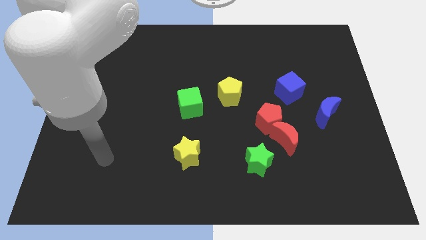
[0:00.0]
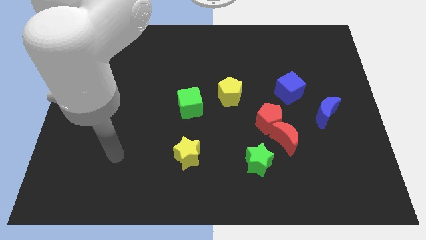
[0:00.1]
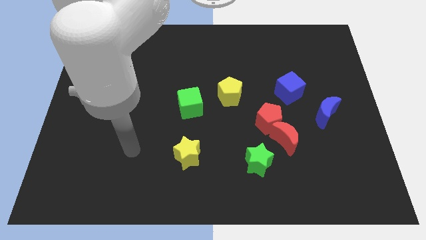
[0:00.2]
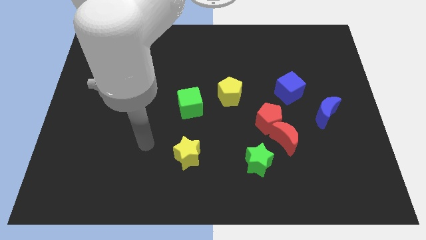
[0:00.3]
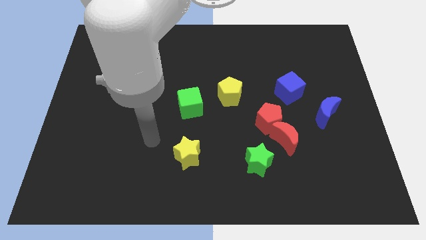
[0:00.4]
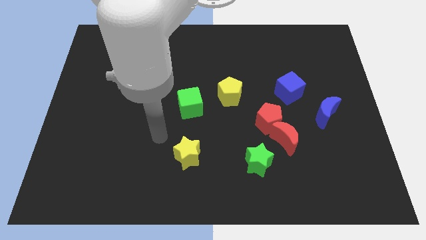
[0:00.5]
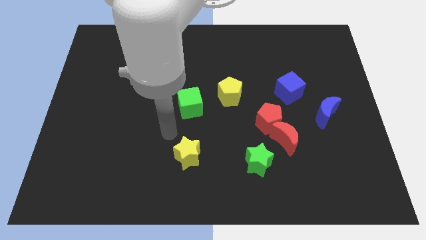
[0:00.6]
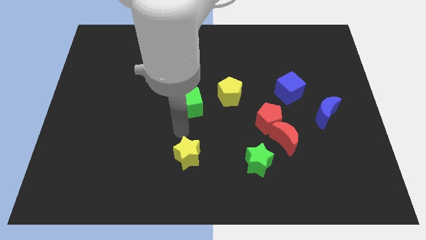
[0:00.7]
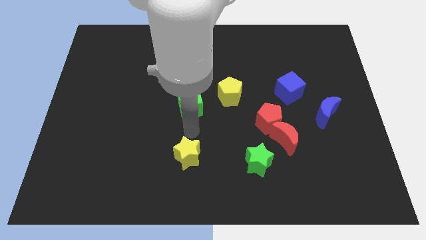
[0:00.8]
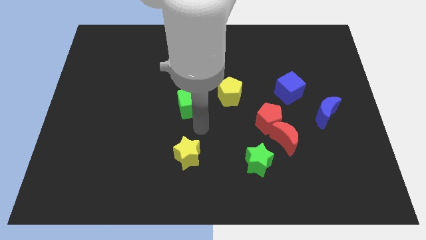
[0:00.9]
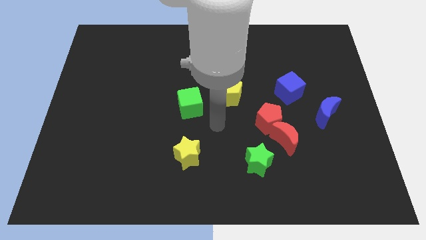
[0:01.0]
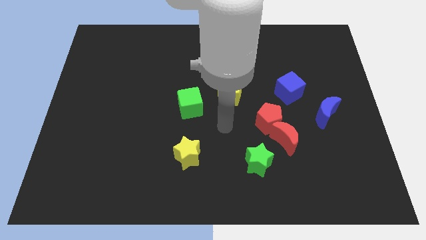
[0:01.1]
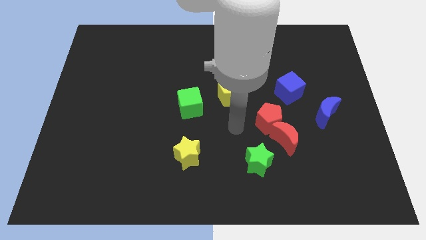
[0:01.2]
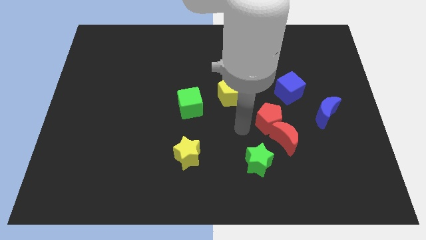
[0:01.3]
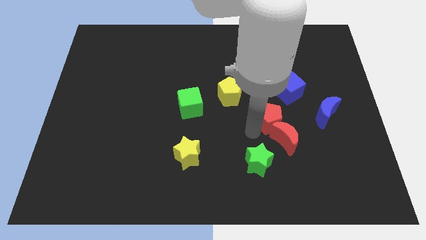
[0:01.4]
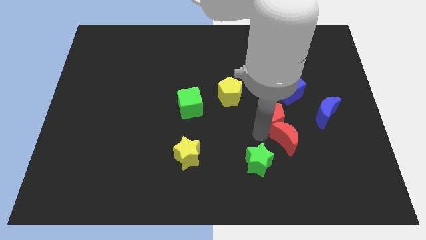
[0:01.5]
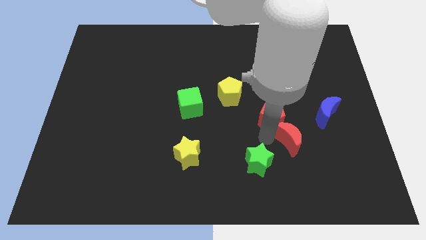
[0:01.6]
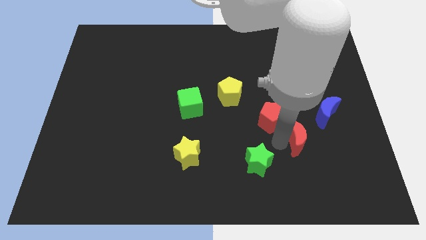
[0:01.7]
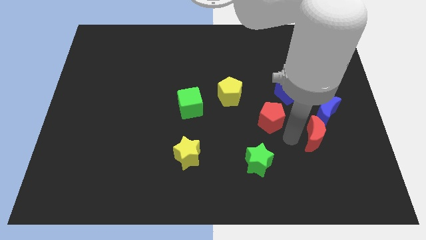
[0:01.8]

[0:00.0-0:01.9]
separate the red pentagon from the red moon

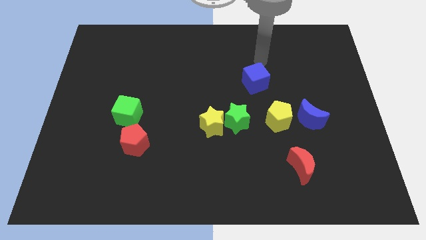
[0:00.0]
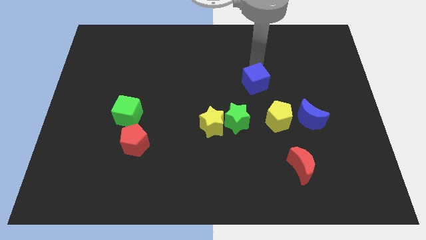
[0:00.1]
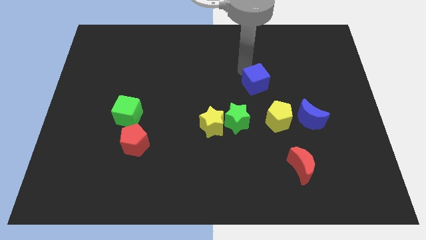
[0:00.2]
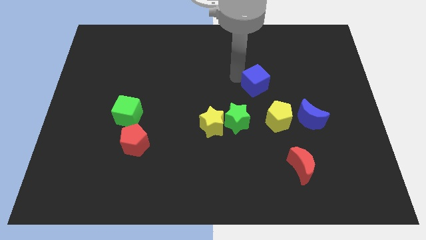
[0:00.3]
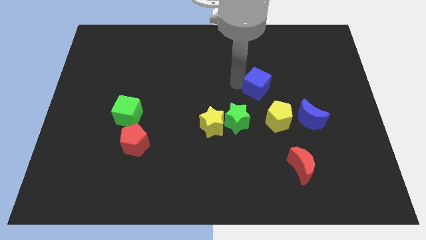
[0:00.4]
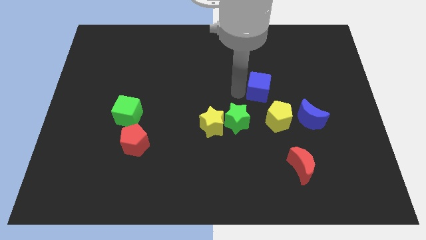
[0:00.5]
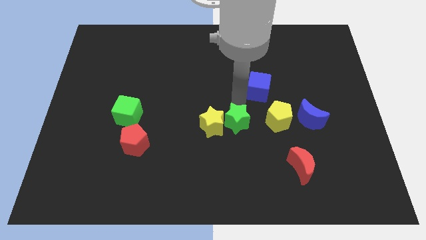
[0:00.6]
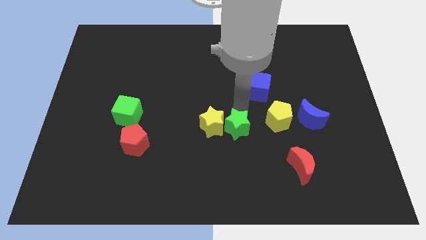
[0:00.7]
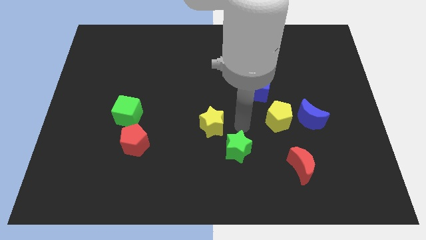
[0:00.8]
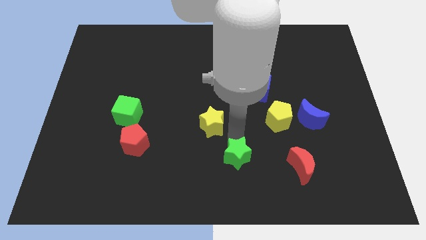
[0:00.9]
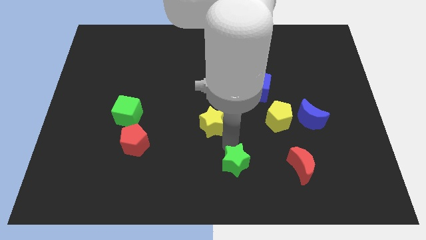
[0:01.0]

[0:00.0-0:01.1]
move the yellow star away from the green star

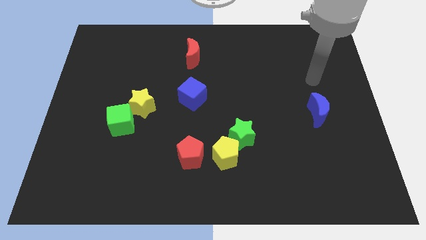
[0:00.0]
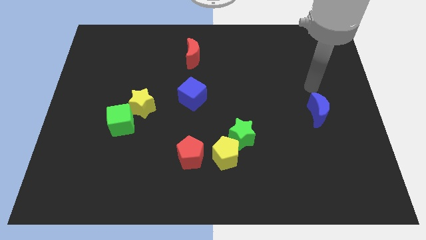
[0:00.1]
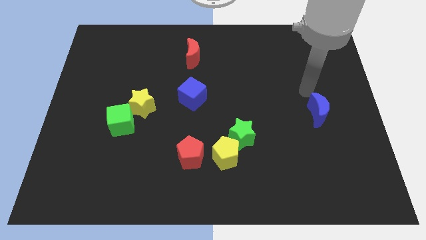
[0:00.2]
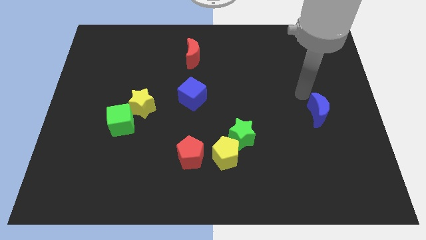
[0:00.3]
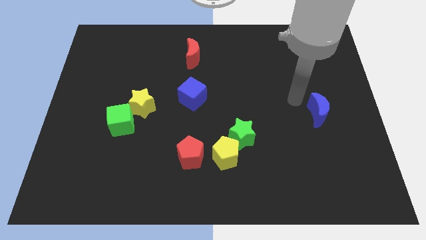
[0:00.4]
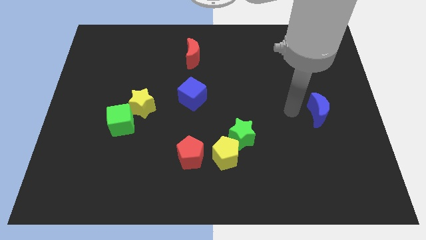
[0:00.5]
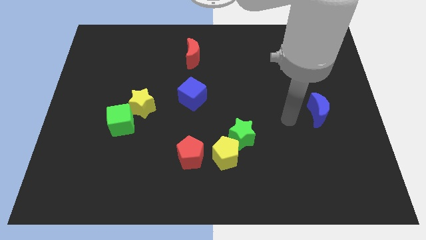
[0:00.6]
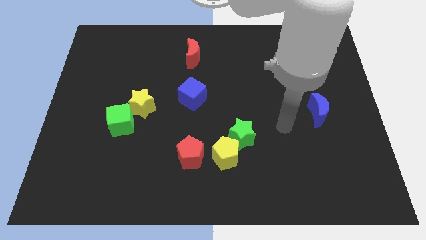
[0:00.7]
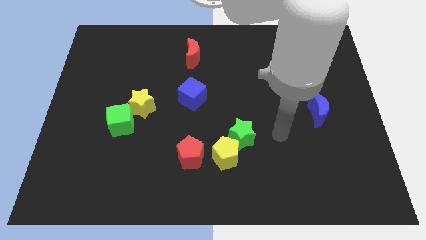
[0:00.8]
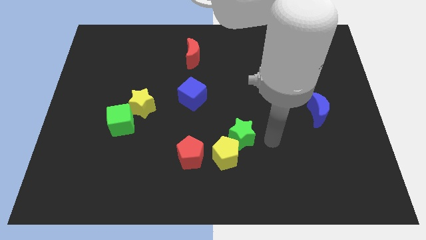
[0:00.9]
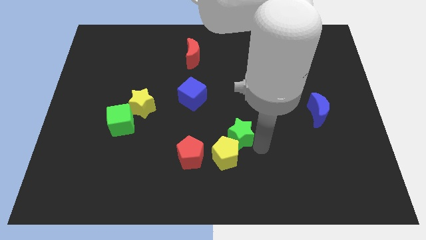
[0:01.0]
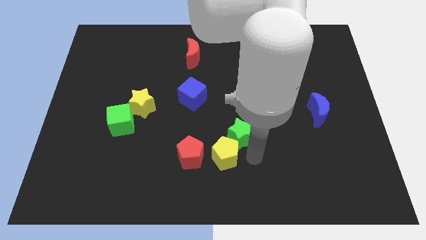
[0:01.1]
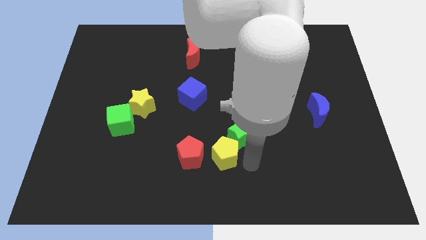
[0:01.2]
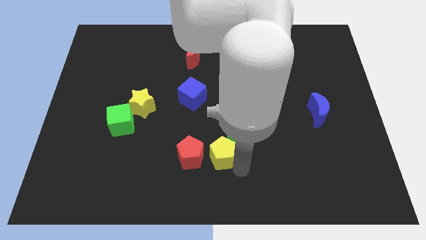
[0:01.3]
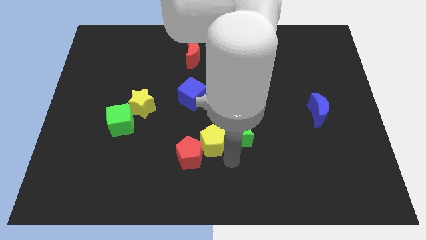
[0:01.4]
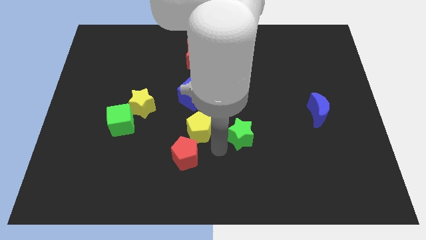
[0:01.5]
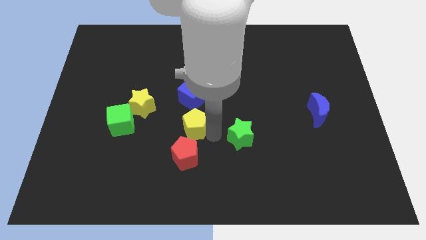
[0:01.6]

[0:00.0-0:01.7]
move the green star away from the yellow pentagon

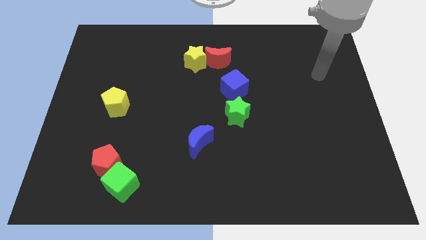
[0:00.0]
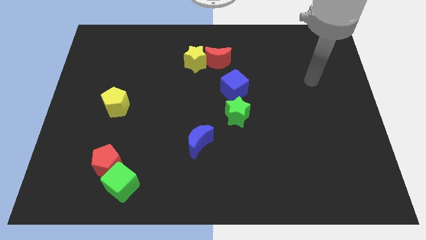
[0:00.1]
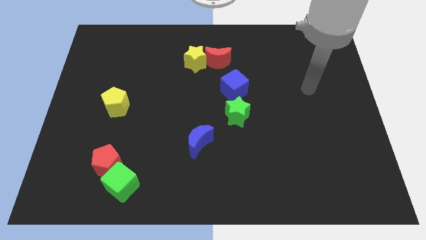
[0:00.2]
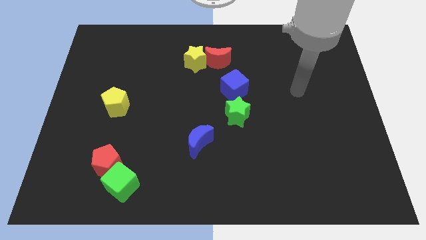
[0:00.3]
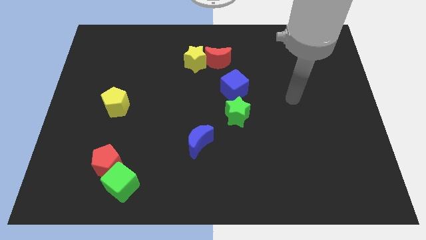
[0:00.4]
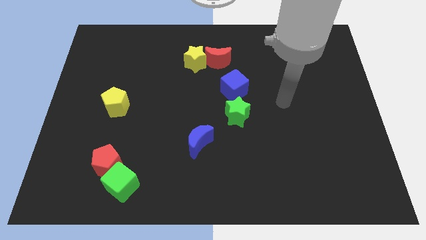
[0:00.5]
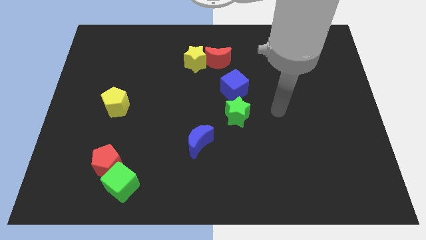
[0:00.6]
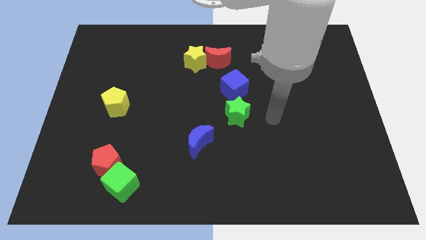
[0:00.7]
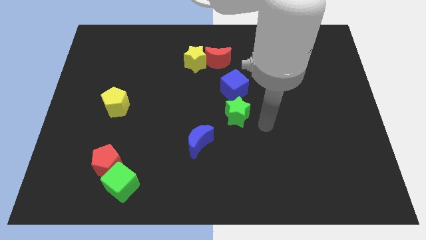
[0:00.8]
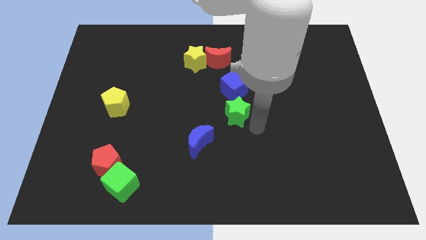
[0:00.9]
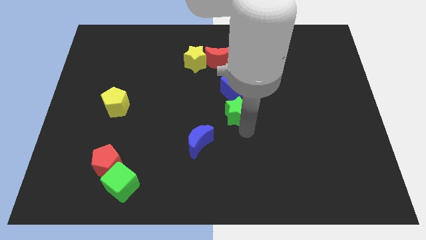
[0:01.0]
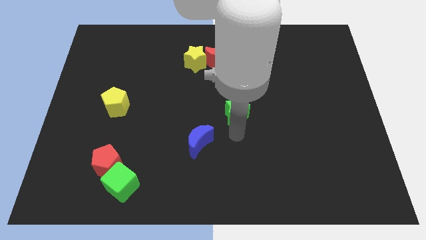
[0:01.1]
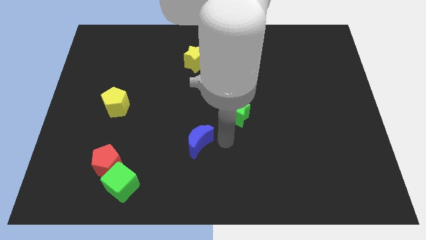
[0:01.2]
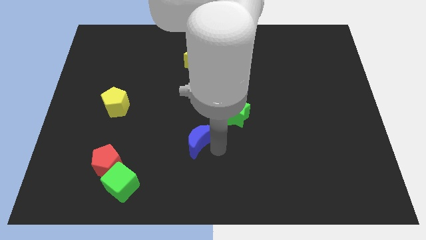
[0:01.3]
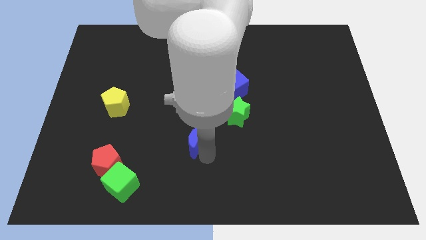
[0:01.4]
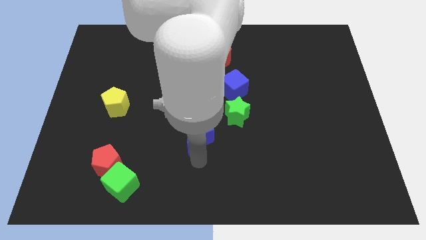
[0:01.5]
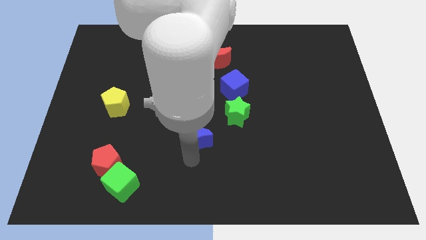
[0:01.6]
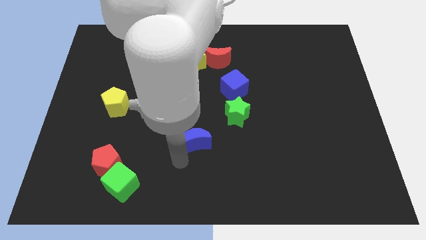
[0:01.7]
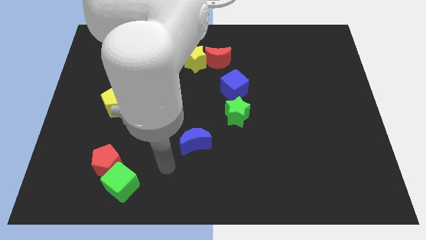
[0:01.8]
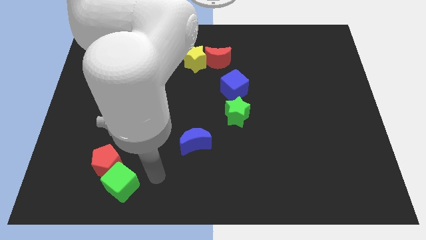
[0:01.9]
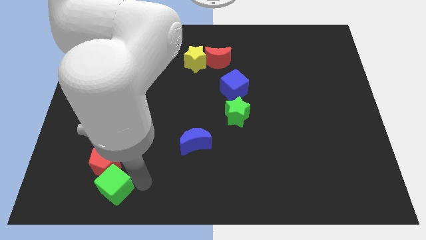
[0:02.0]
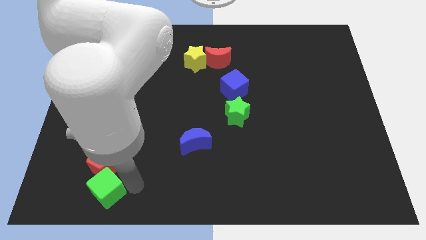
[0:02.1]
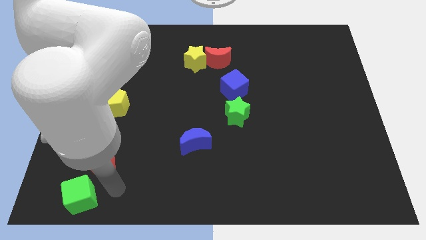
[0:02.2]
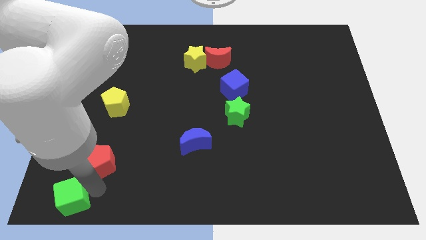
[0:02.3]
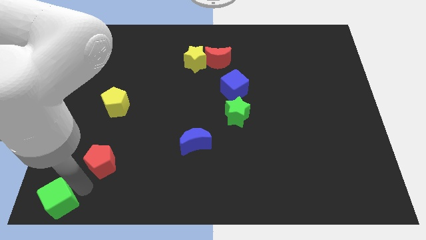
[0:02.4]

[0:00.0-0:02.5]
move the red pentagon away from the green cube

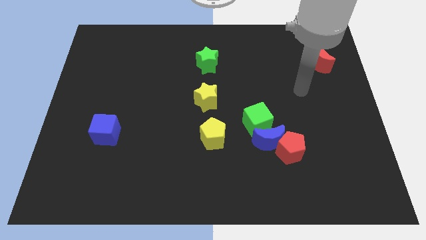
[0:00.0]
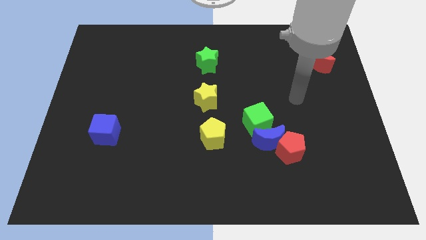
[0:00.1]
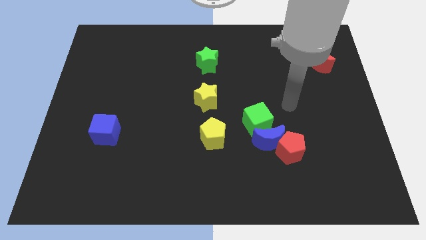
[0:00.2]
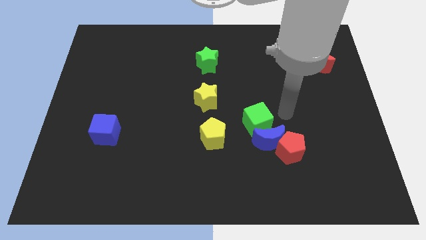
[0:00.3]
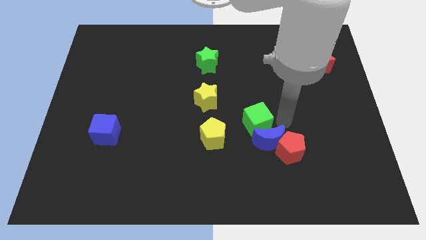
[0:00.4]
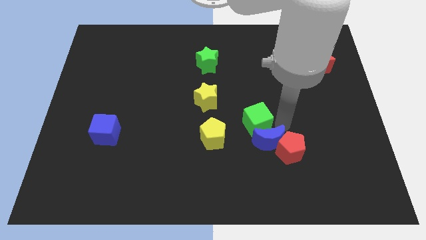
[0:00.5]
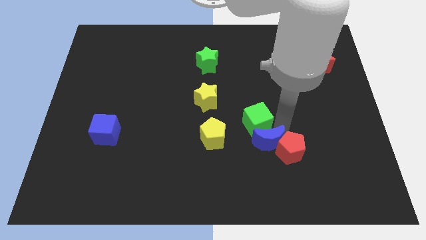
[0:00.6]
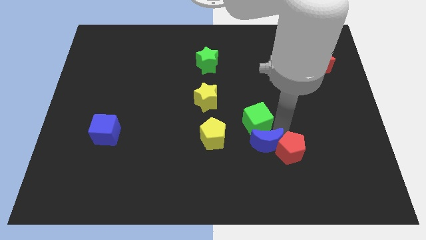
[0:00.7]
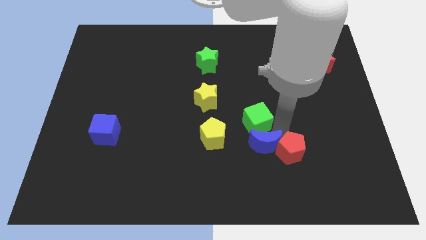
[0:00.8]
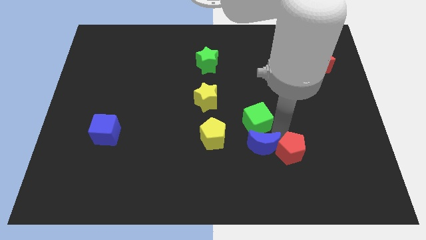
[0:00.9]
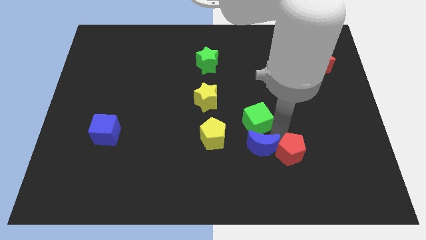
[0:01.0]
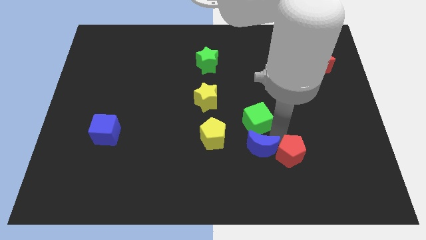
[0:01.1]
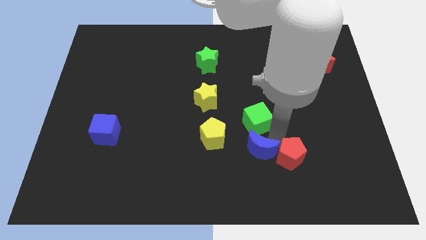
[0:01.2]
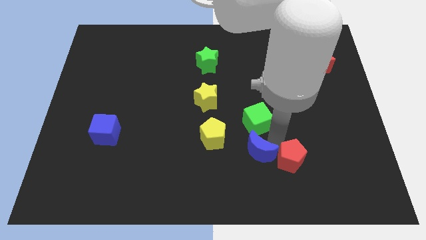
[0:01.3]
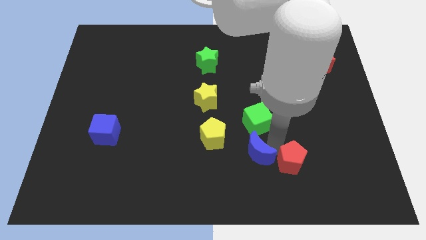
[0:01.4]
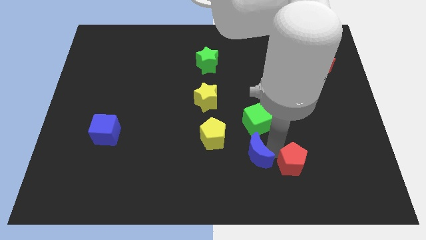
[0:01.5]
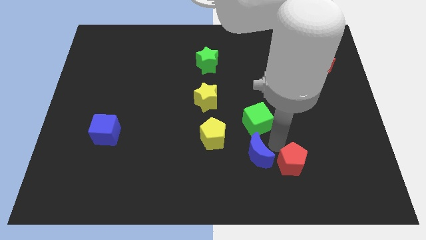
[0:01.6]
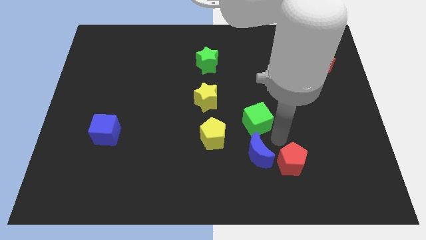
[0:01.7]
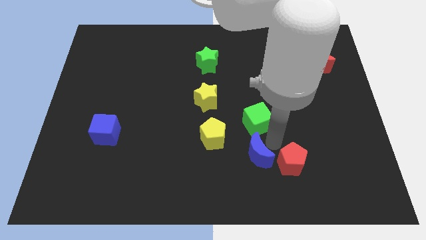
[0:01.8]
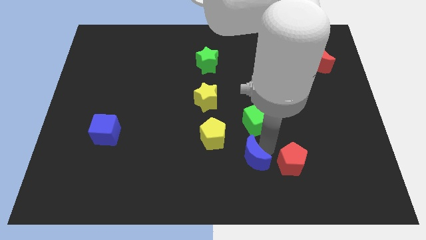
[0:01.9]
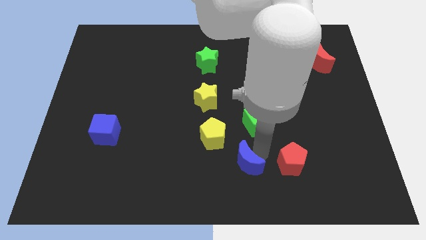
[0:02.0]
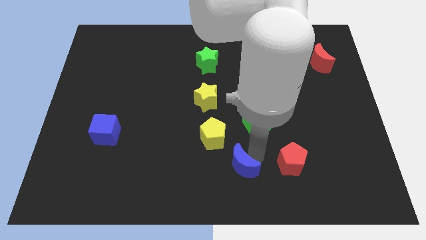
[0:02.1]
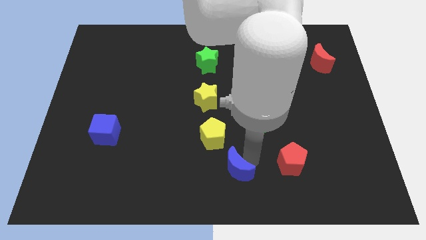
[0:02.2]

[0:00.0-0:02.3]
pull the blue moon apart from the red pentagon and green cube
